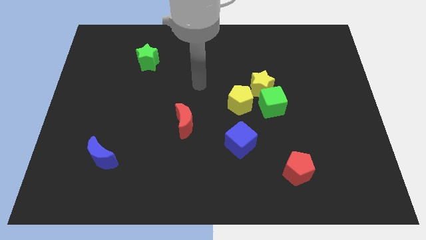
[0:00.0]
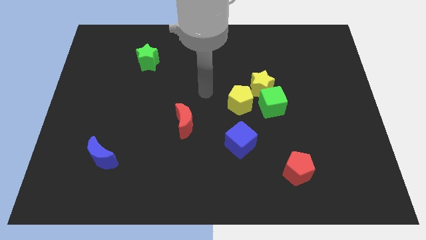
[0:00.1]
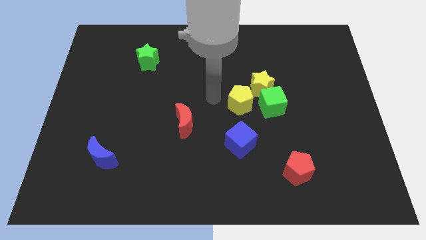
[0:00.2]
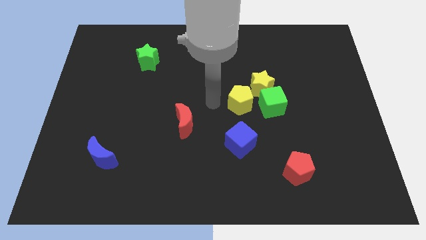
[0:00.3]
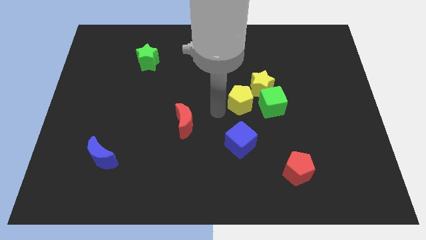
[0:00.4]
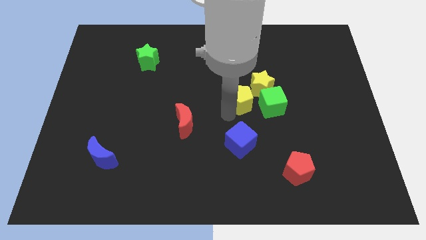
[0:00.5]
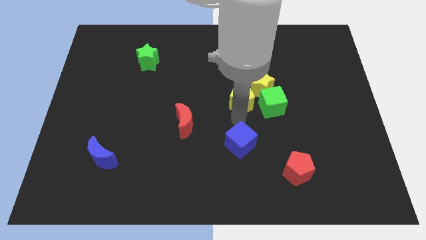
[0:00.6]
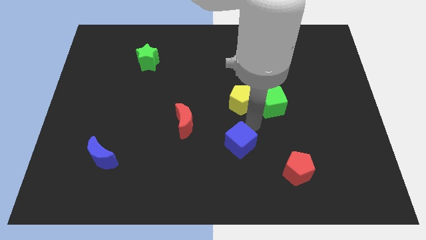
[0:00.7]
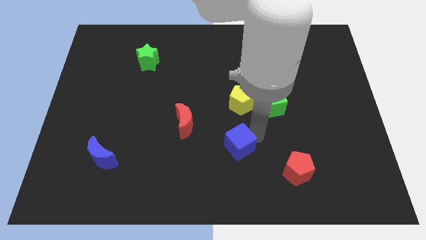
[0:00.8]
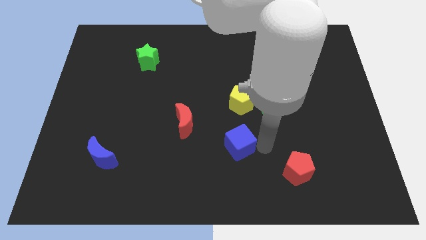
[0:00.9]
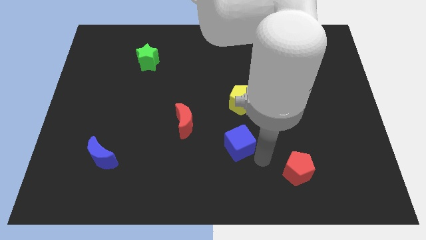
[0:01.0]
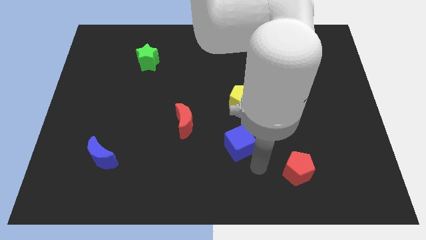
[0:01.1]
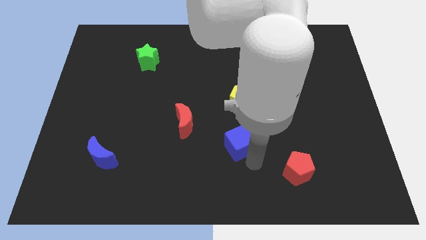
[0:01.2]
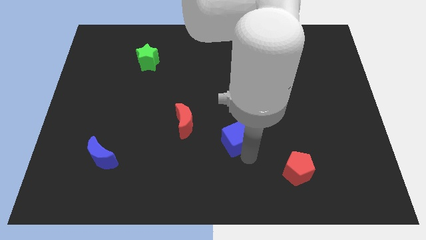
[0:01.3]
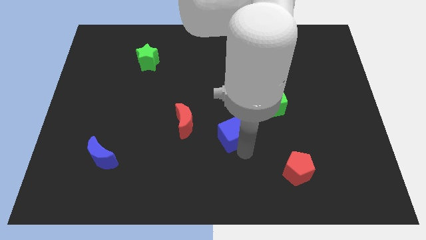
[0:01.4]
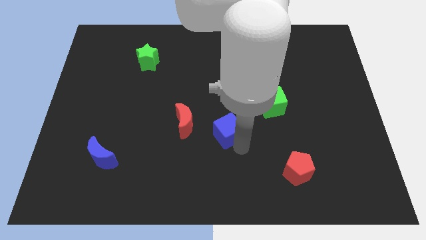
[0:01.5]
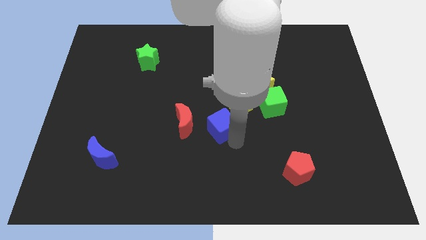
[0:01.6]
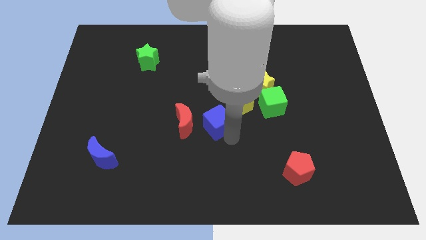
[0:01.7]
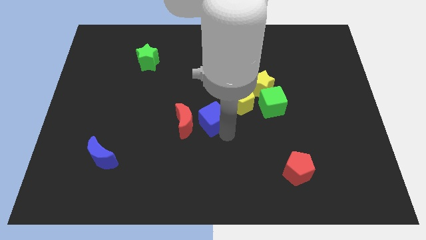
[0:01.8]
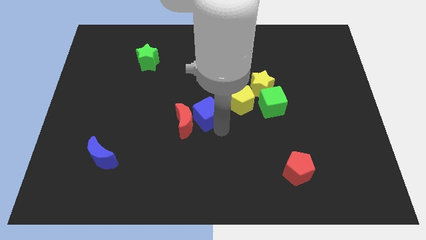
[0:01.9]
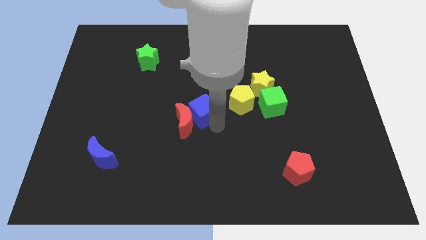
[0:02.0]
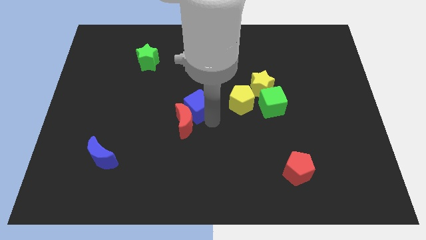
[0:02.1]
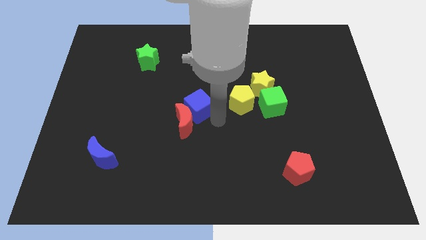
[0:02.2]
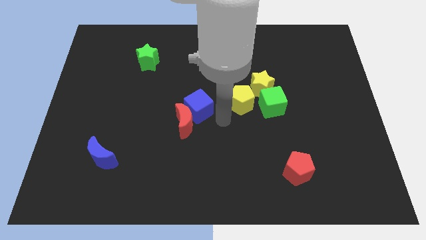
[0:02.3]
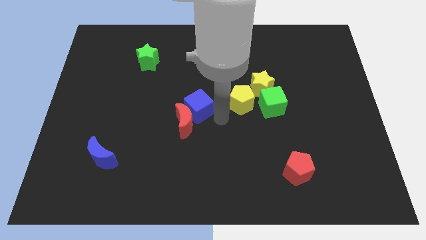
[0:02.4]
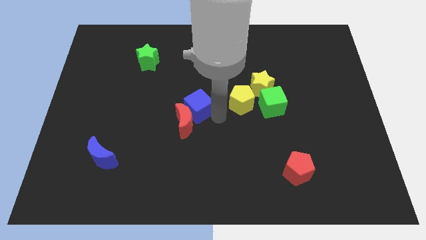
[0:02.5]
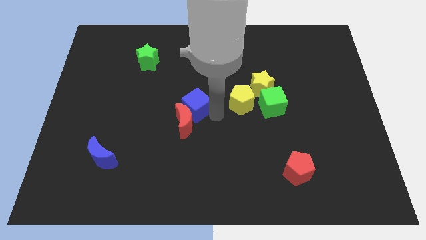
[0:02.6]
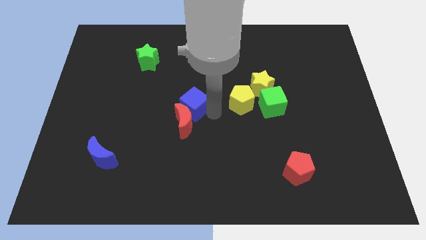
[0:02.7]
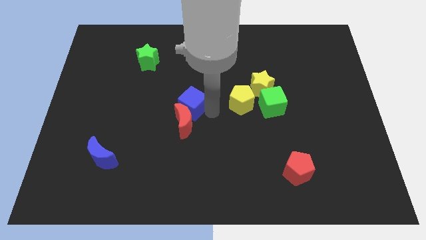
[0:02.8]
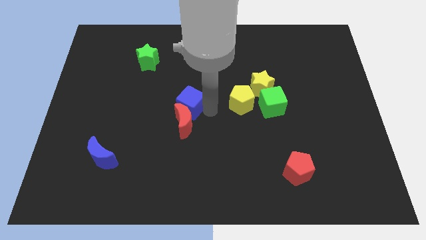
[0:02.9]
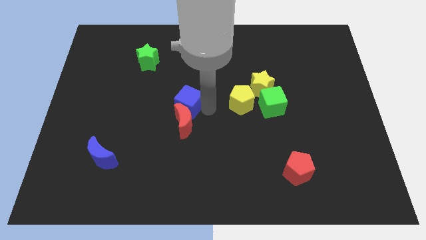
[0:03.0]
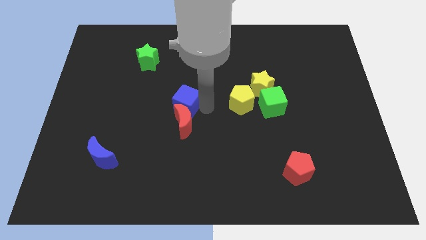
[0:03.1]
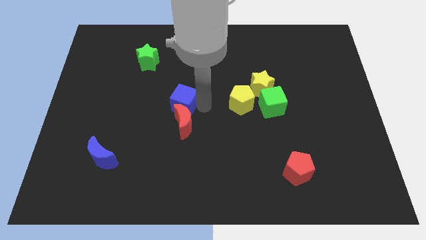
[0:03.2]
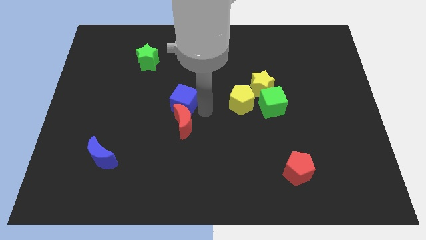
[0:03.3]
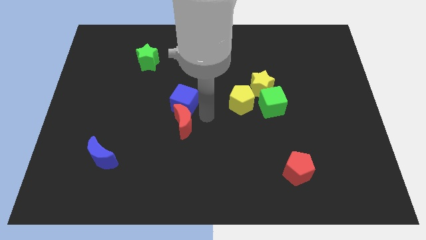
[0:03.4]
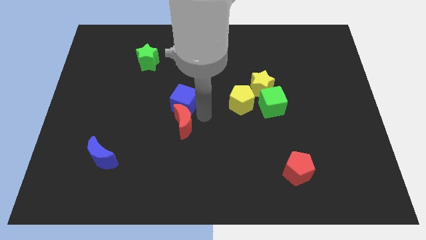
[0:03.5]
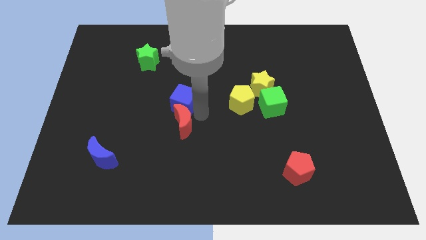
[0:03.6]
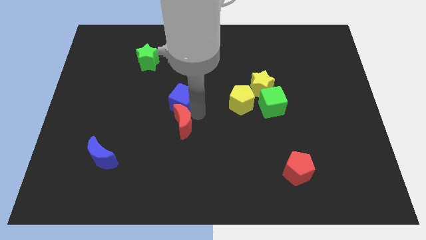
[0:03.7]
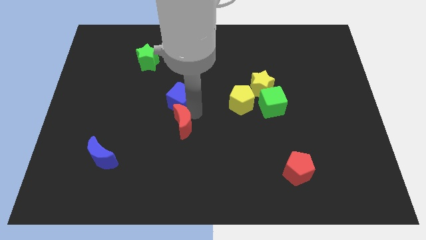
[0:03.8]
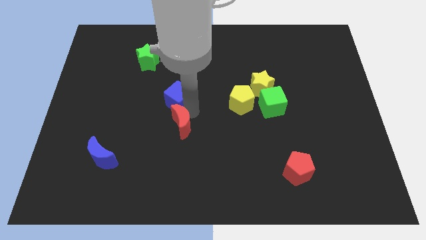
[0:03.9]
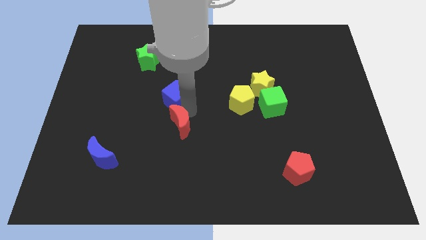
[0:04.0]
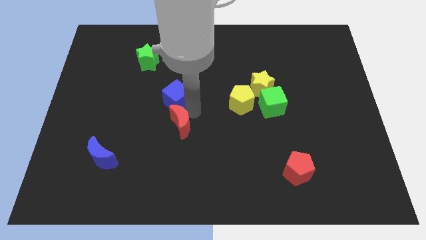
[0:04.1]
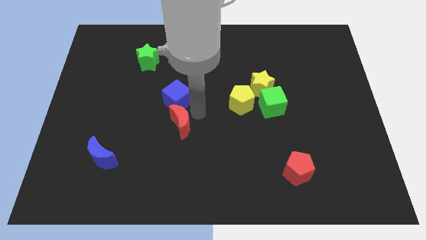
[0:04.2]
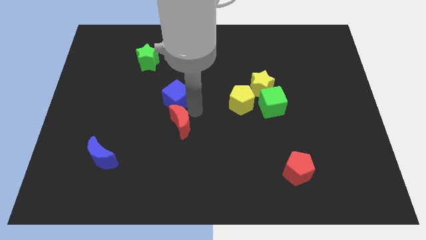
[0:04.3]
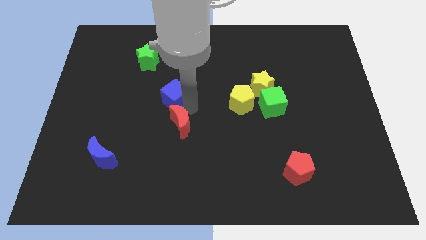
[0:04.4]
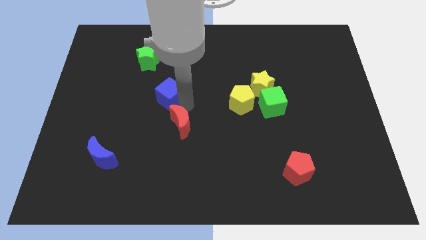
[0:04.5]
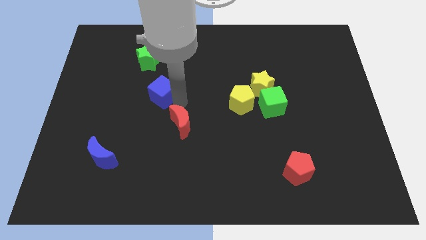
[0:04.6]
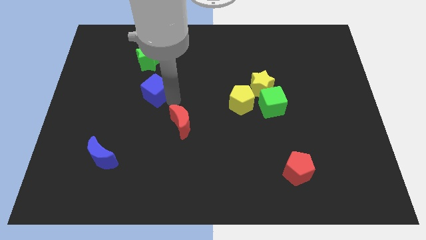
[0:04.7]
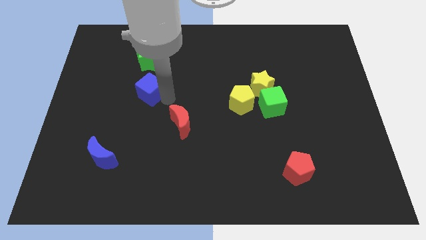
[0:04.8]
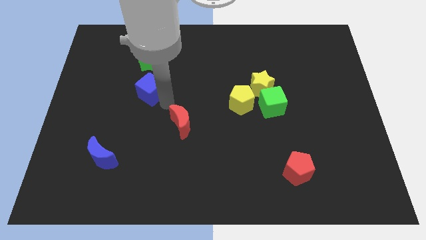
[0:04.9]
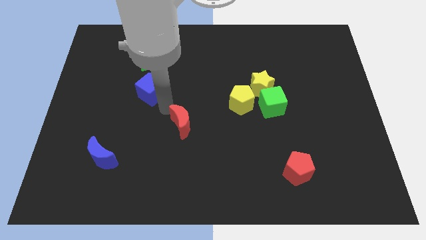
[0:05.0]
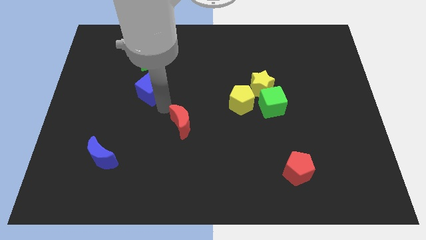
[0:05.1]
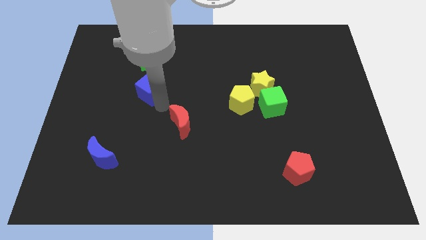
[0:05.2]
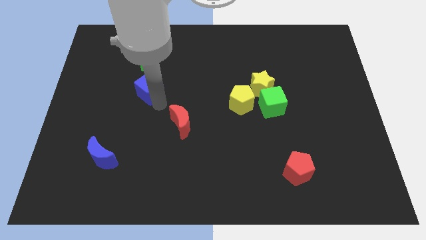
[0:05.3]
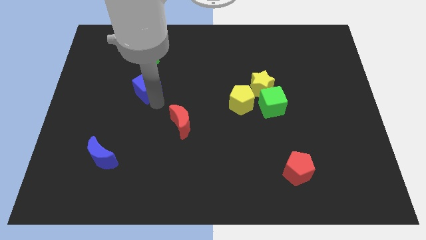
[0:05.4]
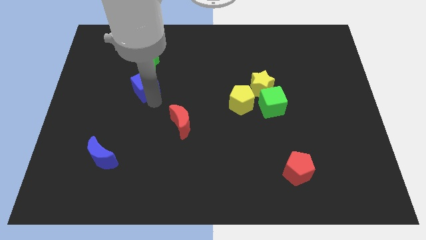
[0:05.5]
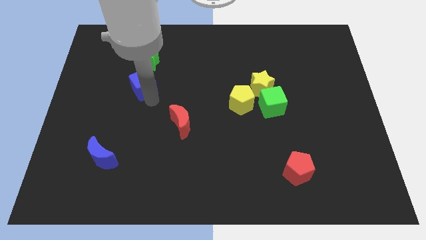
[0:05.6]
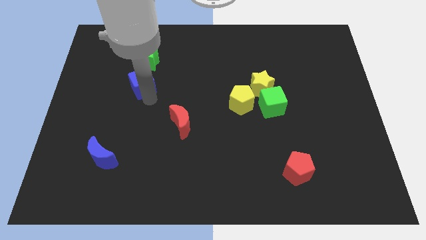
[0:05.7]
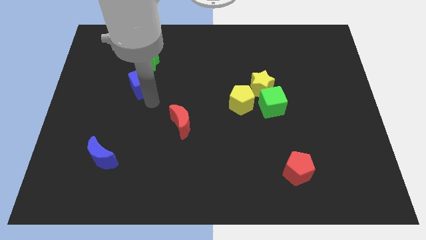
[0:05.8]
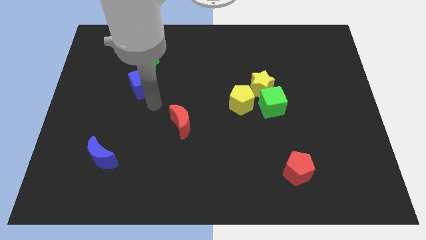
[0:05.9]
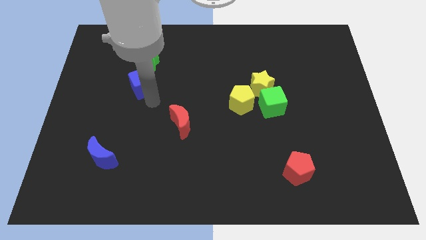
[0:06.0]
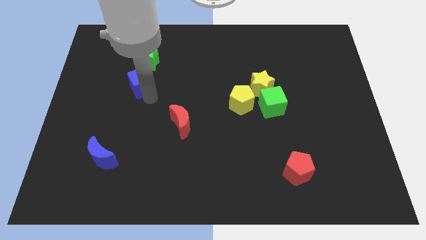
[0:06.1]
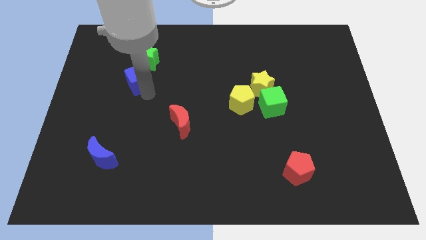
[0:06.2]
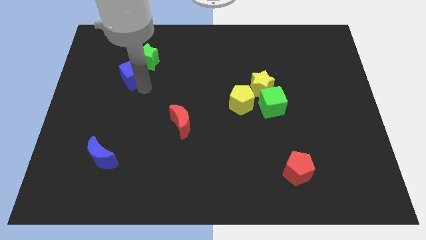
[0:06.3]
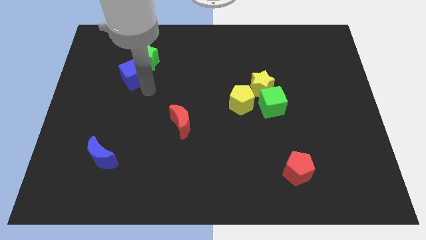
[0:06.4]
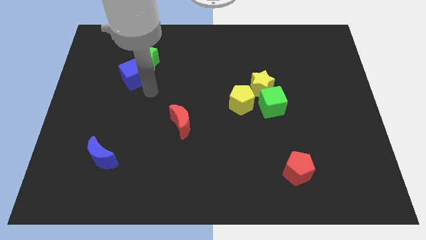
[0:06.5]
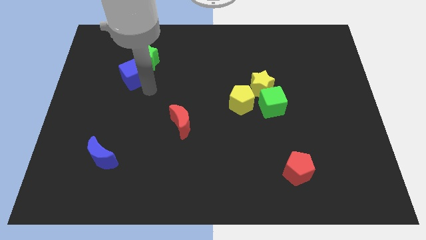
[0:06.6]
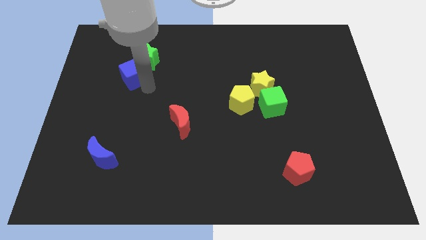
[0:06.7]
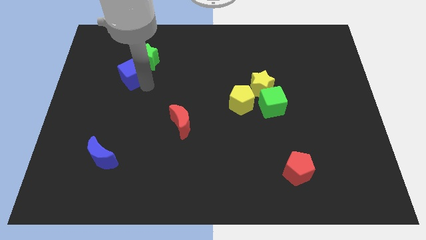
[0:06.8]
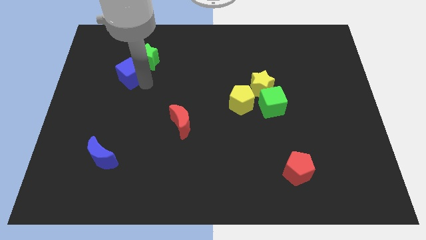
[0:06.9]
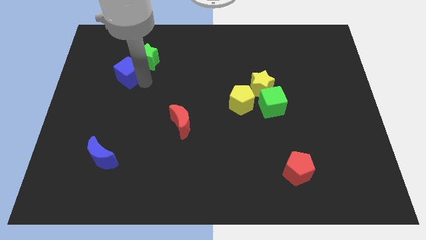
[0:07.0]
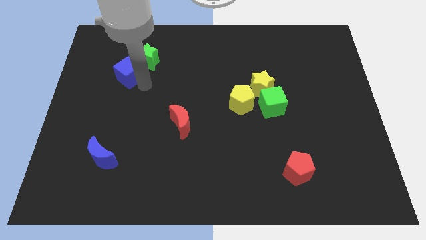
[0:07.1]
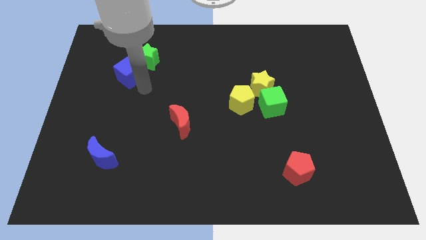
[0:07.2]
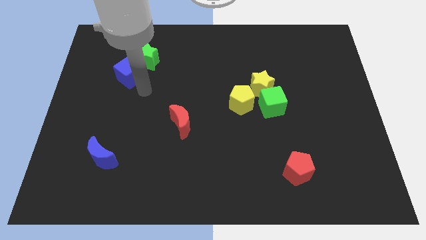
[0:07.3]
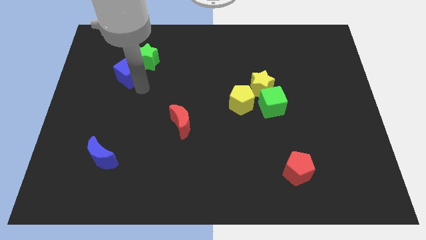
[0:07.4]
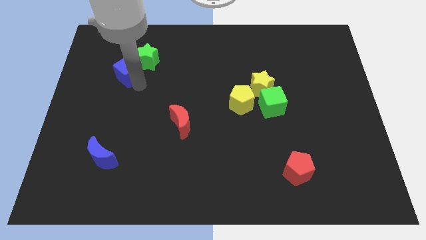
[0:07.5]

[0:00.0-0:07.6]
push the blue cube to the left of the green star
